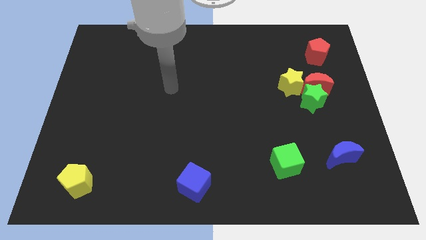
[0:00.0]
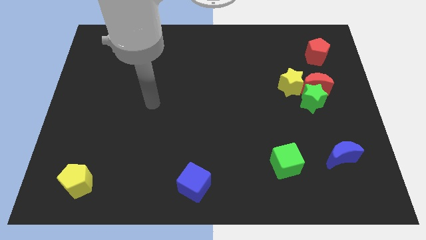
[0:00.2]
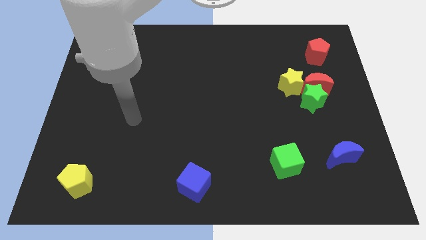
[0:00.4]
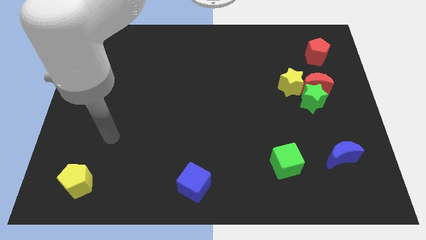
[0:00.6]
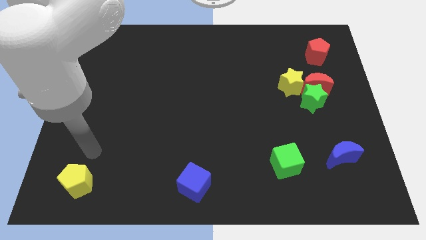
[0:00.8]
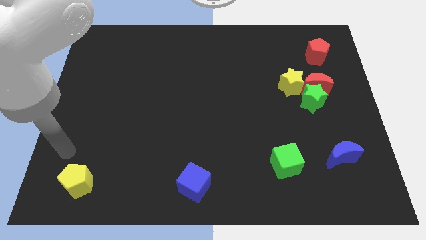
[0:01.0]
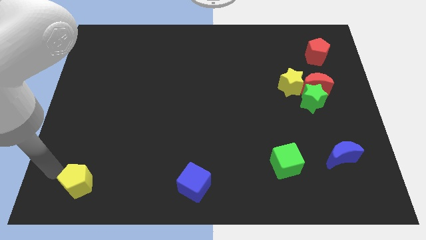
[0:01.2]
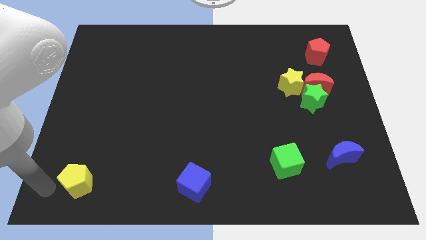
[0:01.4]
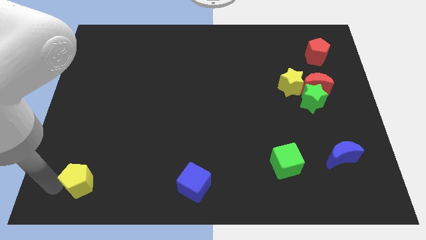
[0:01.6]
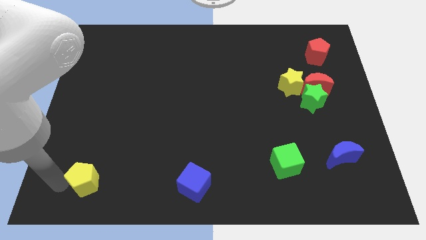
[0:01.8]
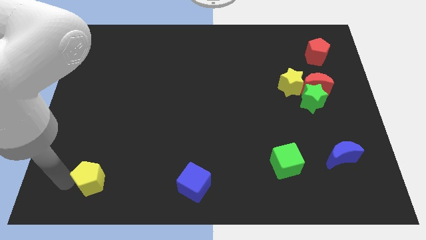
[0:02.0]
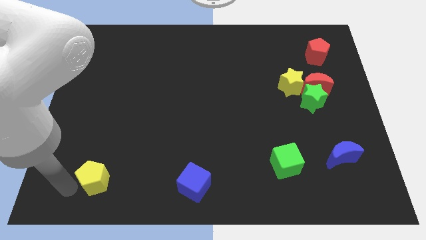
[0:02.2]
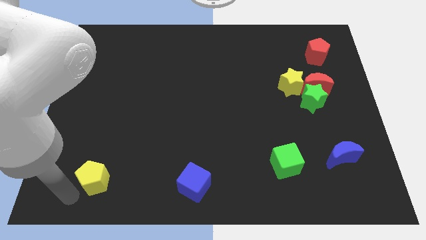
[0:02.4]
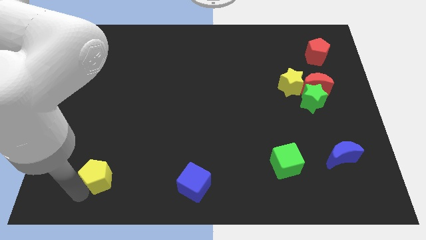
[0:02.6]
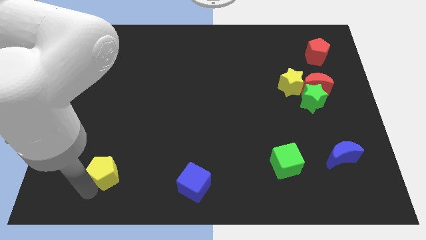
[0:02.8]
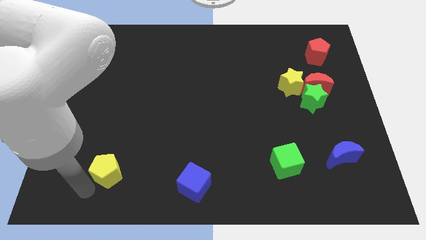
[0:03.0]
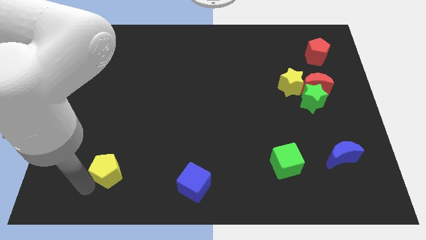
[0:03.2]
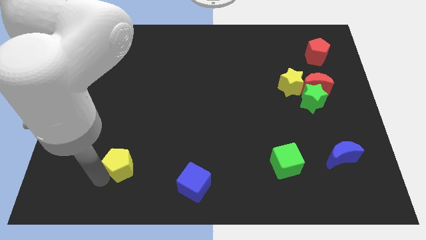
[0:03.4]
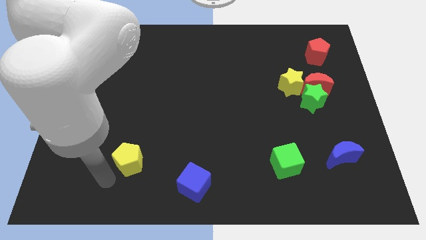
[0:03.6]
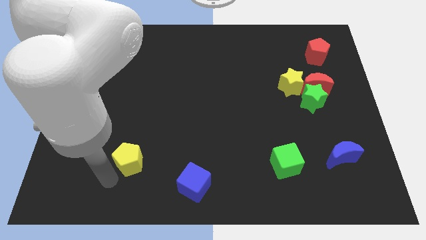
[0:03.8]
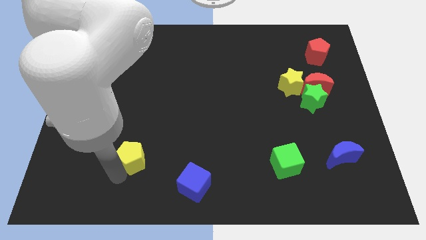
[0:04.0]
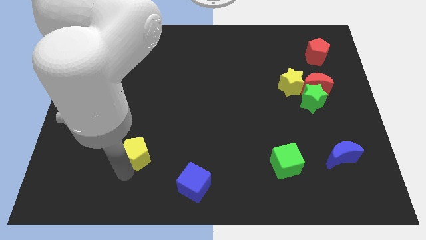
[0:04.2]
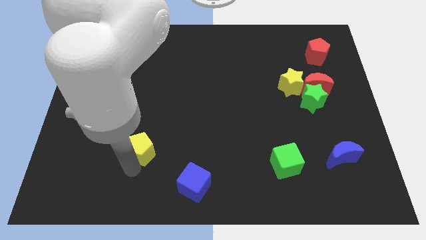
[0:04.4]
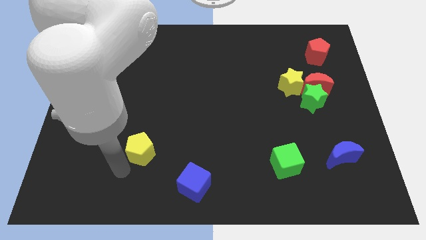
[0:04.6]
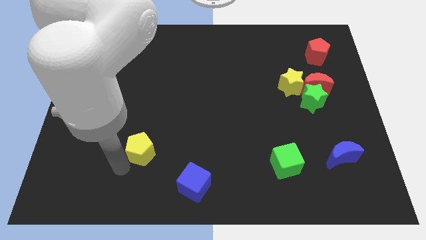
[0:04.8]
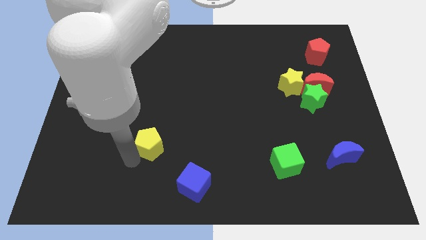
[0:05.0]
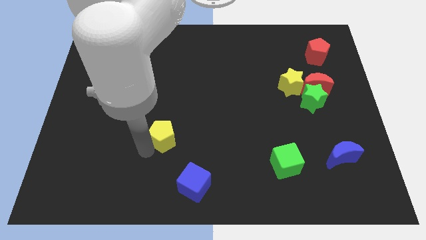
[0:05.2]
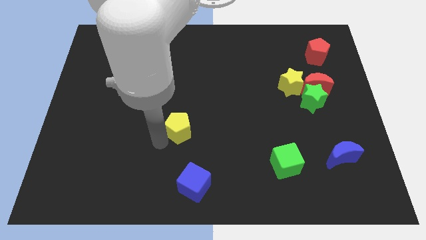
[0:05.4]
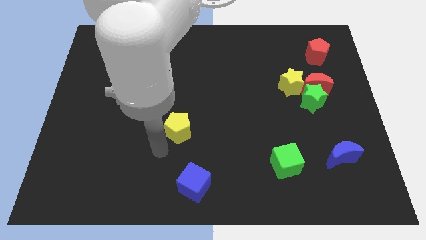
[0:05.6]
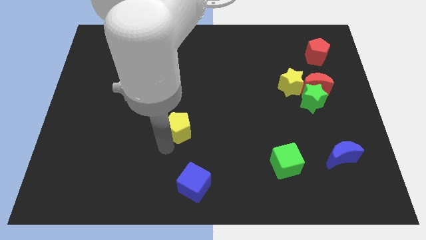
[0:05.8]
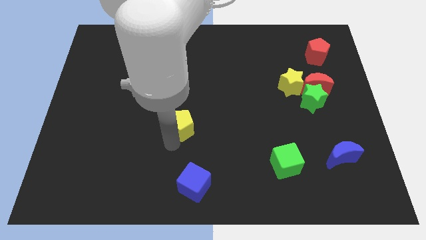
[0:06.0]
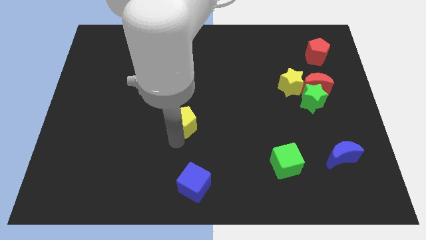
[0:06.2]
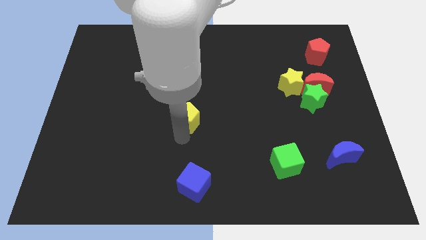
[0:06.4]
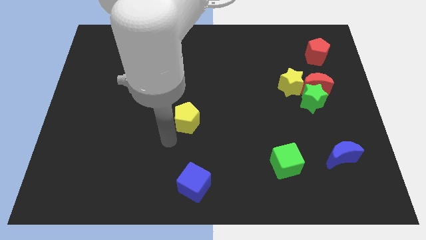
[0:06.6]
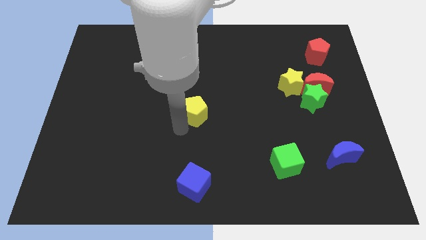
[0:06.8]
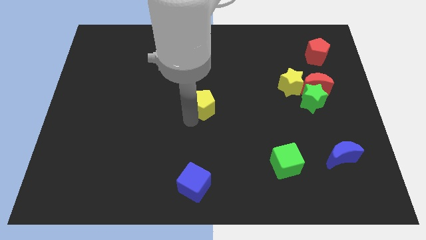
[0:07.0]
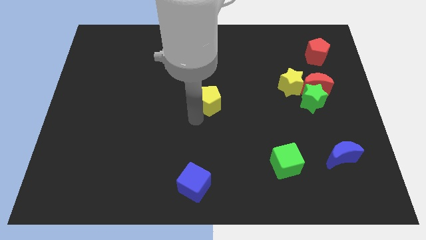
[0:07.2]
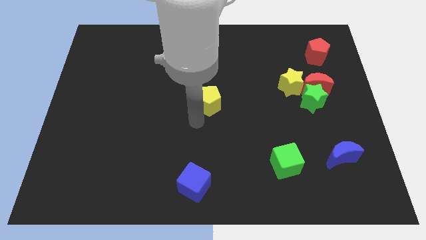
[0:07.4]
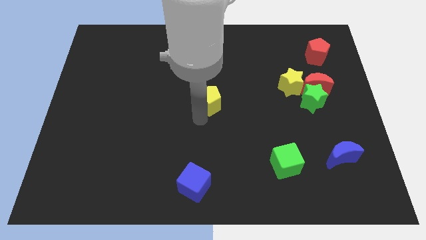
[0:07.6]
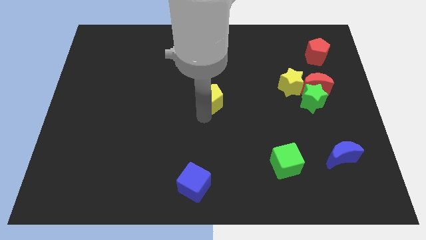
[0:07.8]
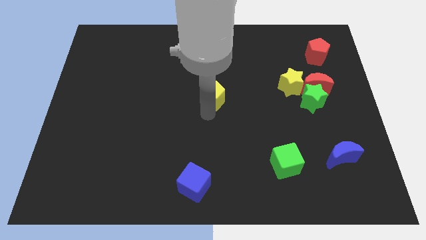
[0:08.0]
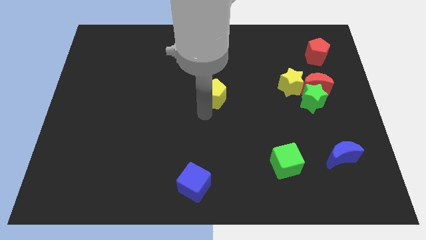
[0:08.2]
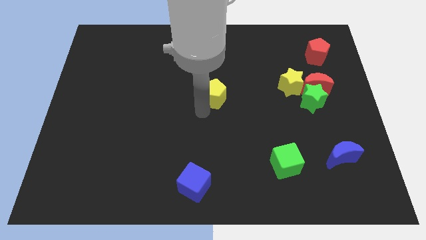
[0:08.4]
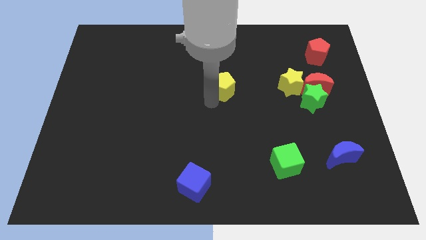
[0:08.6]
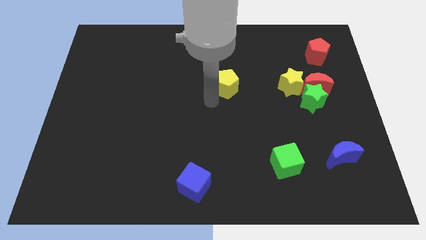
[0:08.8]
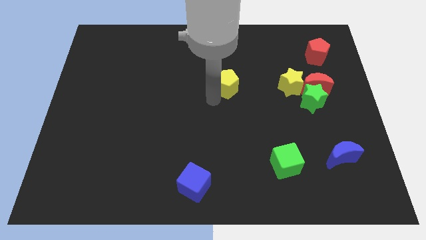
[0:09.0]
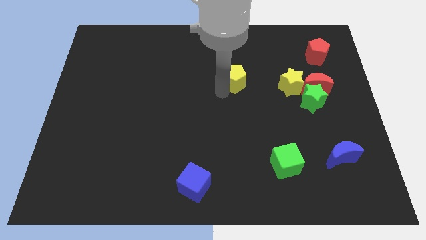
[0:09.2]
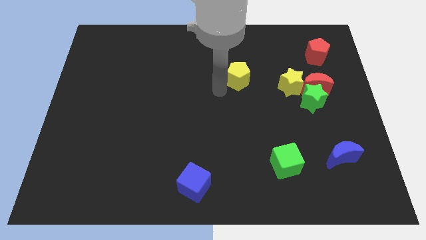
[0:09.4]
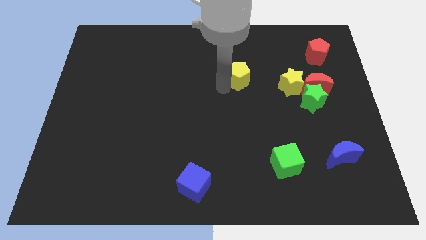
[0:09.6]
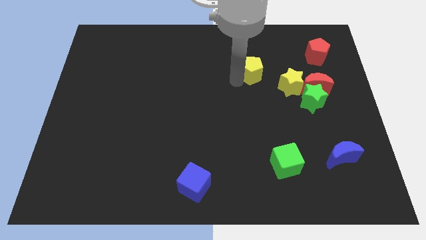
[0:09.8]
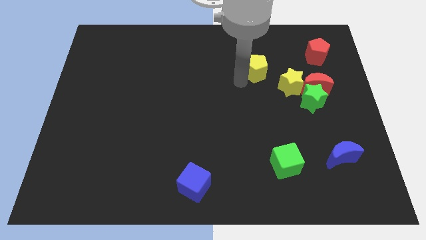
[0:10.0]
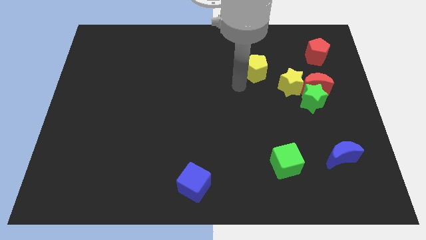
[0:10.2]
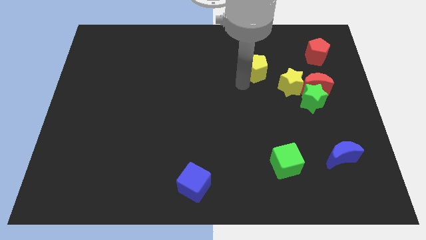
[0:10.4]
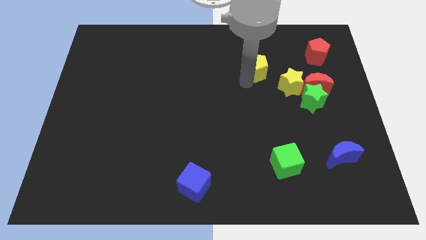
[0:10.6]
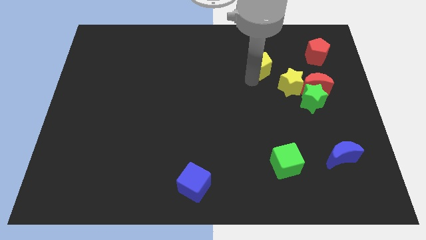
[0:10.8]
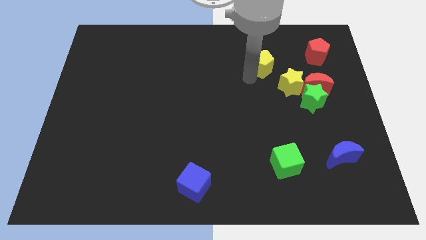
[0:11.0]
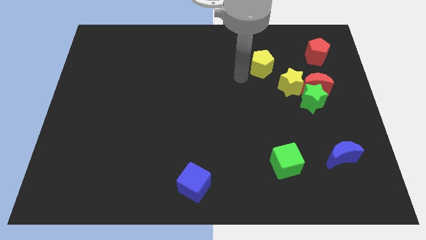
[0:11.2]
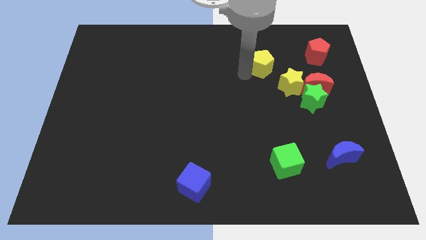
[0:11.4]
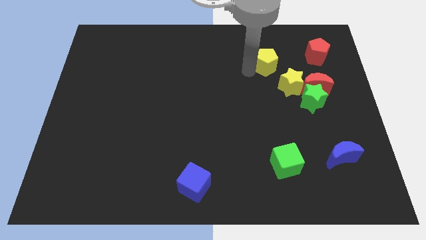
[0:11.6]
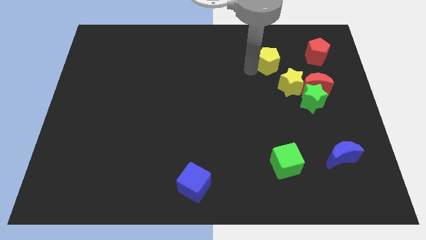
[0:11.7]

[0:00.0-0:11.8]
move the yellow pentagon to the top of the yellow star

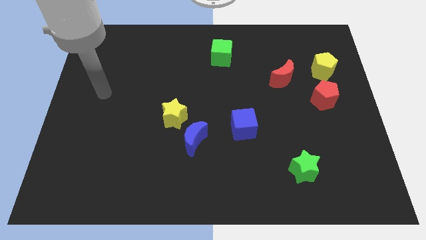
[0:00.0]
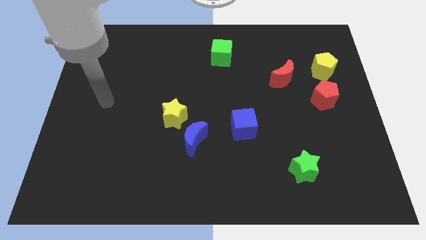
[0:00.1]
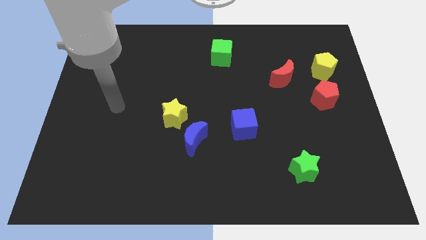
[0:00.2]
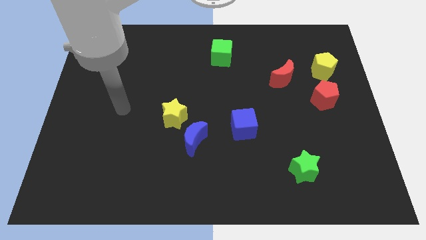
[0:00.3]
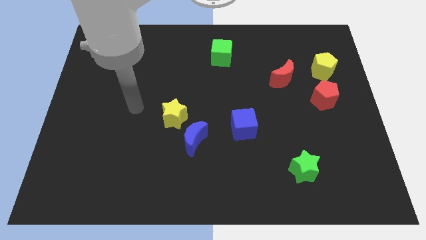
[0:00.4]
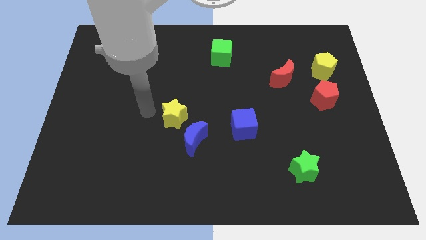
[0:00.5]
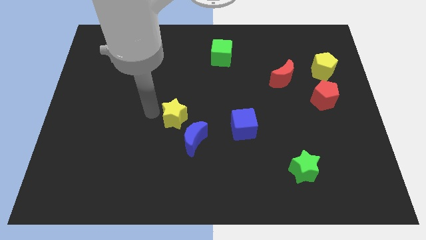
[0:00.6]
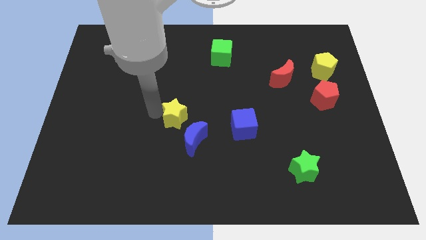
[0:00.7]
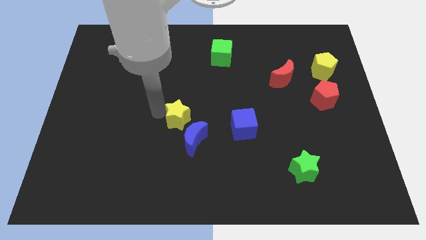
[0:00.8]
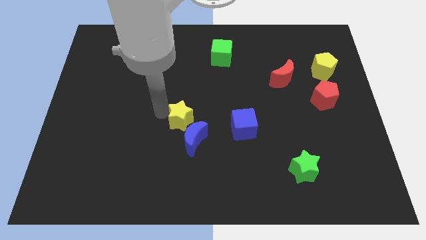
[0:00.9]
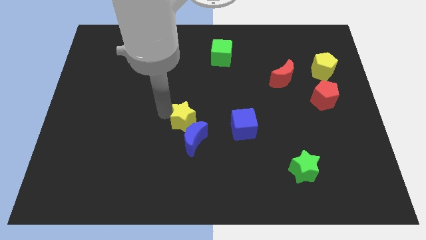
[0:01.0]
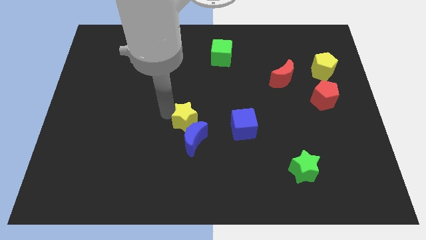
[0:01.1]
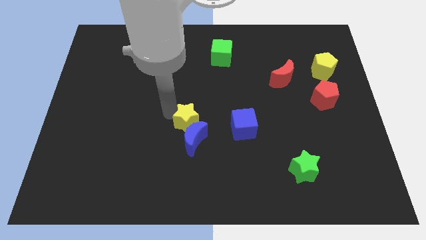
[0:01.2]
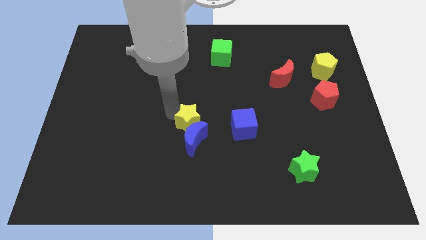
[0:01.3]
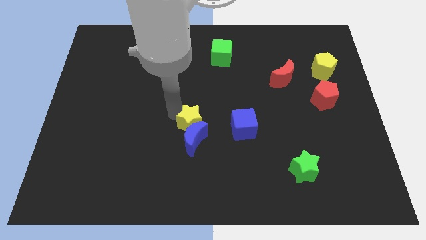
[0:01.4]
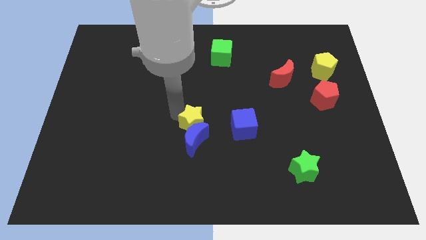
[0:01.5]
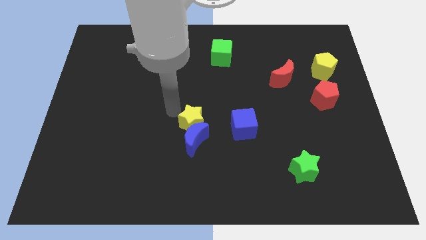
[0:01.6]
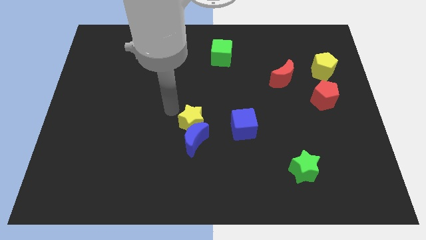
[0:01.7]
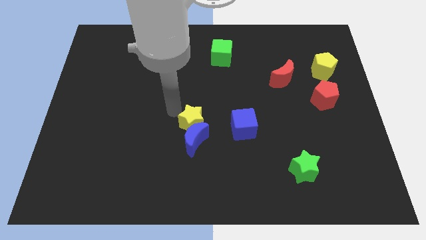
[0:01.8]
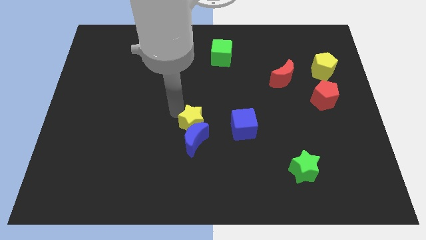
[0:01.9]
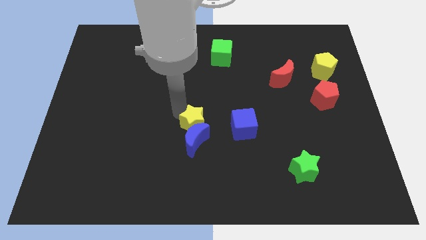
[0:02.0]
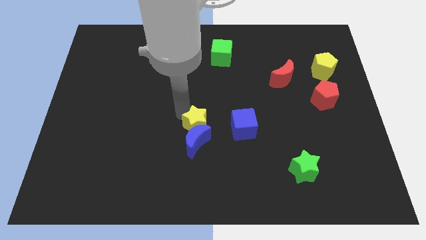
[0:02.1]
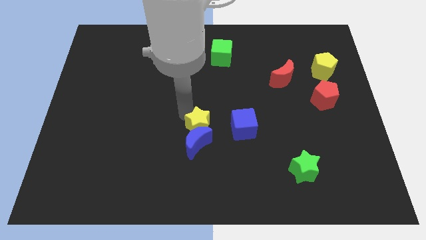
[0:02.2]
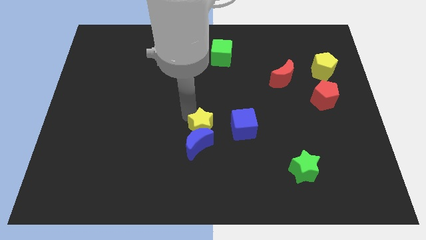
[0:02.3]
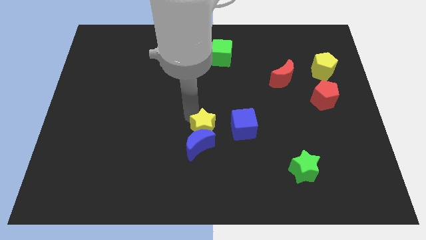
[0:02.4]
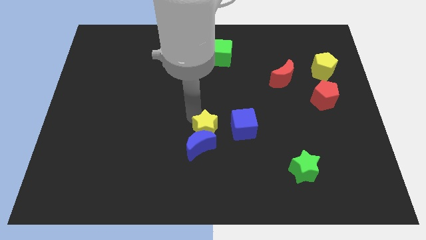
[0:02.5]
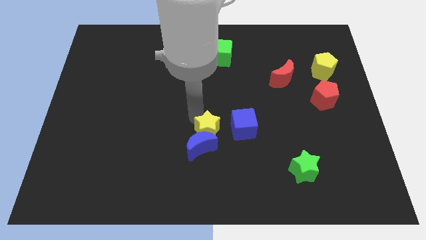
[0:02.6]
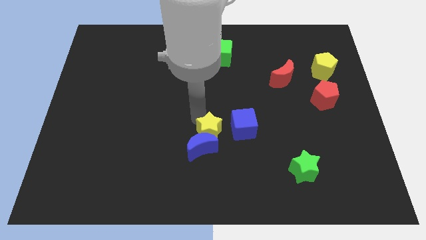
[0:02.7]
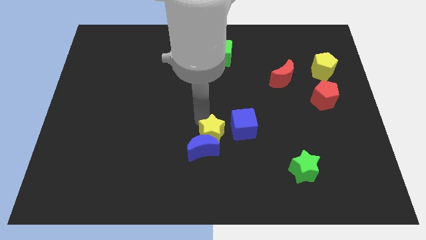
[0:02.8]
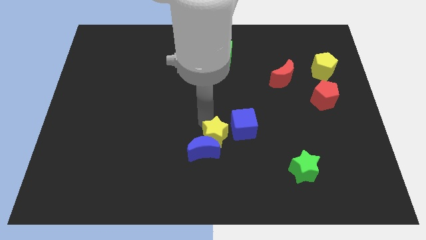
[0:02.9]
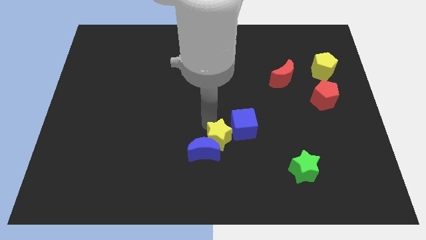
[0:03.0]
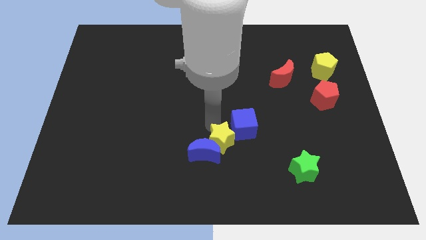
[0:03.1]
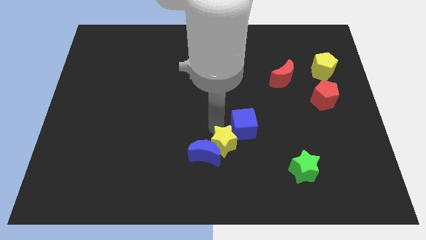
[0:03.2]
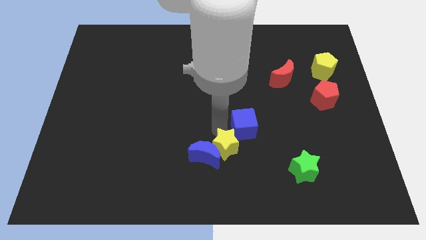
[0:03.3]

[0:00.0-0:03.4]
slide the yellow star to the bottom right of the blue moon
